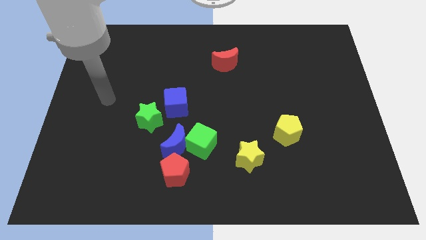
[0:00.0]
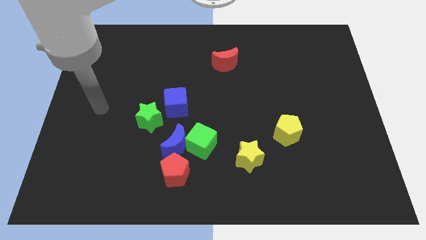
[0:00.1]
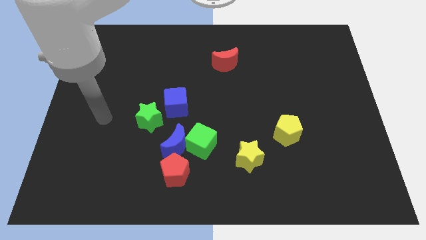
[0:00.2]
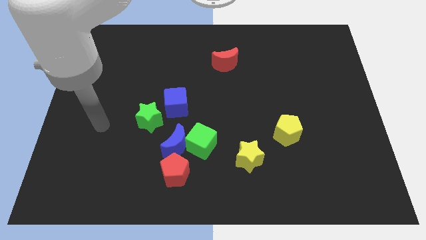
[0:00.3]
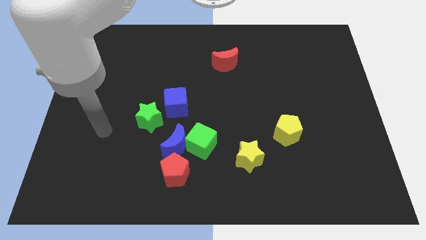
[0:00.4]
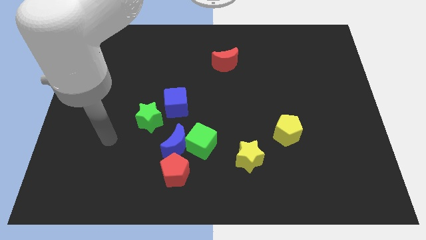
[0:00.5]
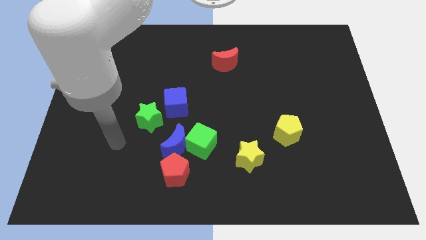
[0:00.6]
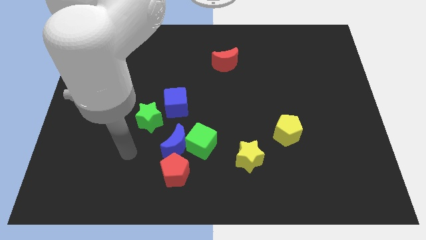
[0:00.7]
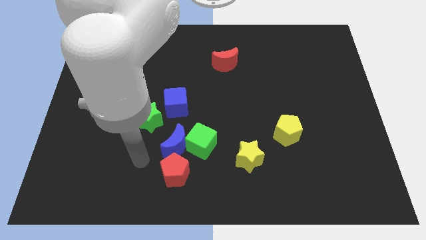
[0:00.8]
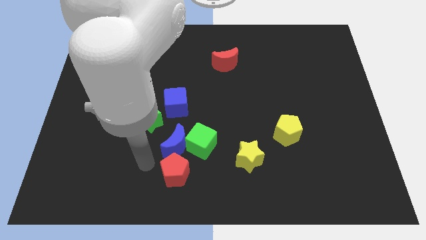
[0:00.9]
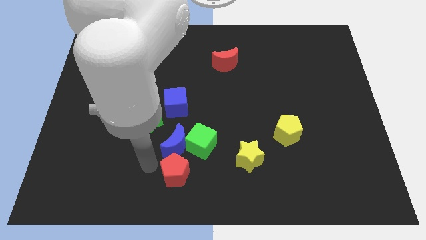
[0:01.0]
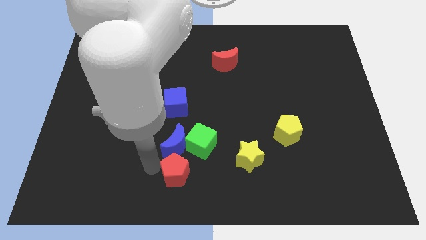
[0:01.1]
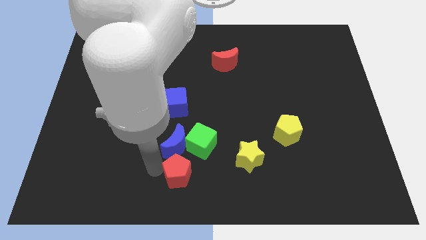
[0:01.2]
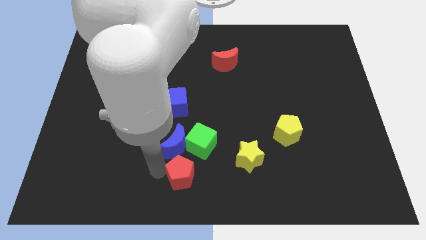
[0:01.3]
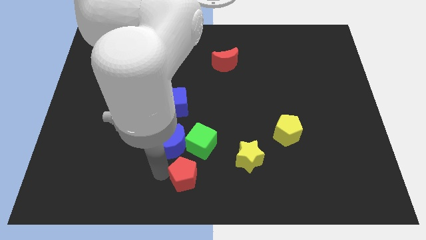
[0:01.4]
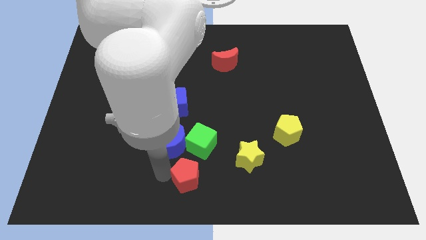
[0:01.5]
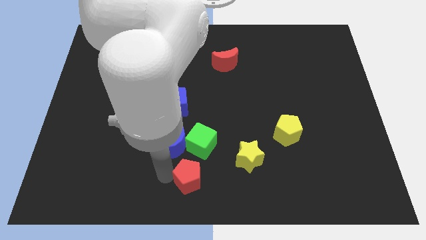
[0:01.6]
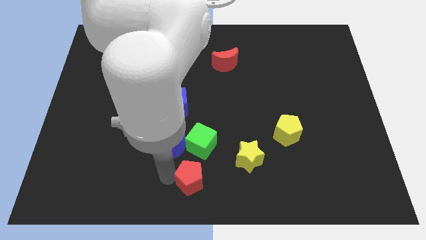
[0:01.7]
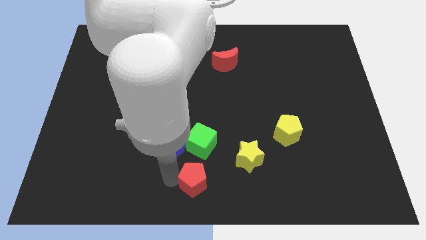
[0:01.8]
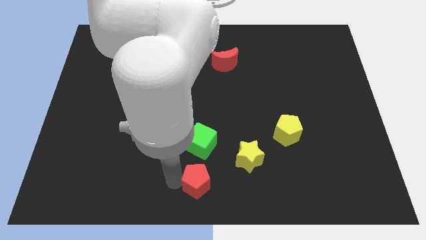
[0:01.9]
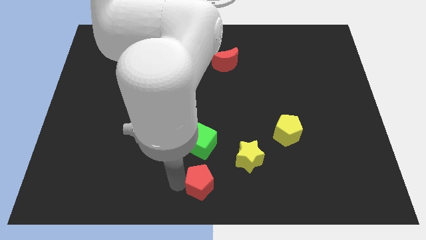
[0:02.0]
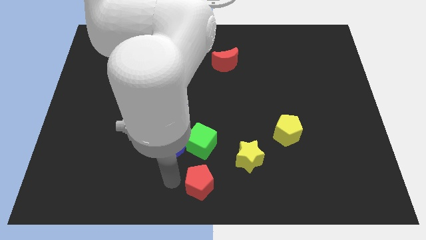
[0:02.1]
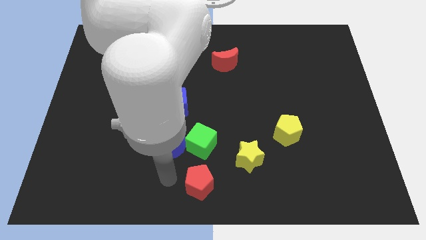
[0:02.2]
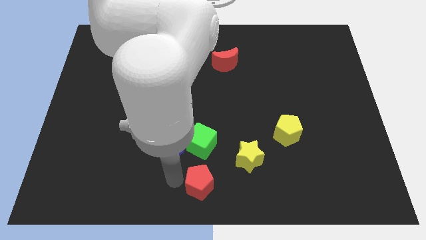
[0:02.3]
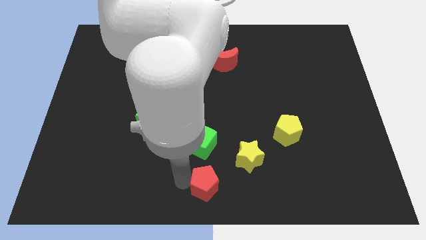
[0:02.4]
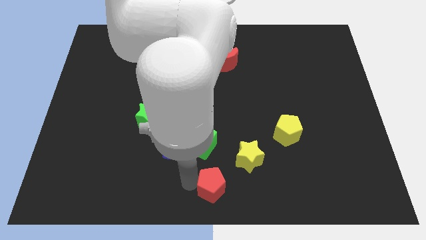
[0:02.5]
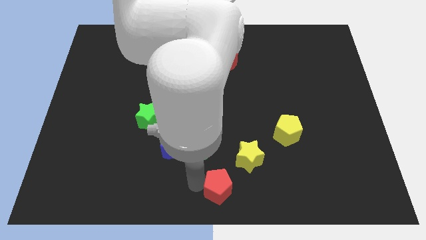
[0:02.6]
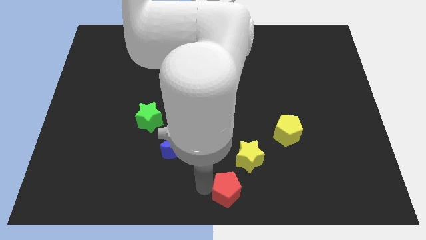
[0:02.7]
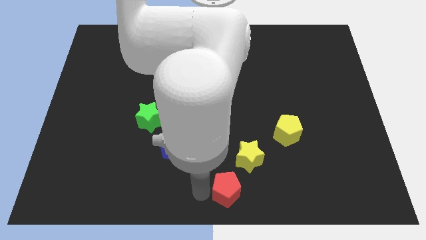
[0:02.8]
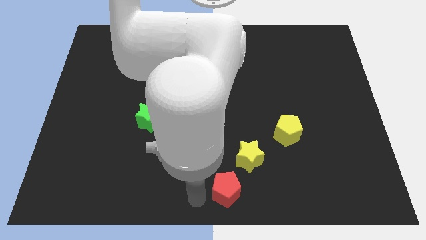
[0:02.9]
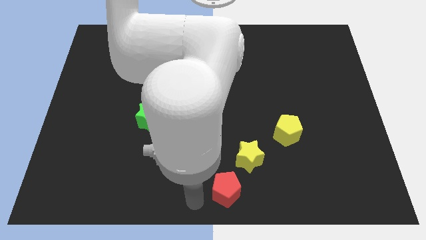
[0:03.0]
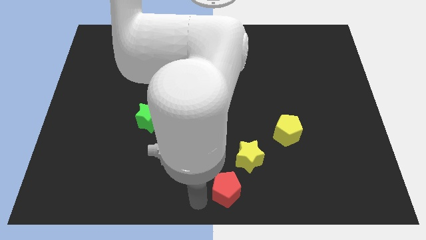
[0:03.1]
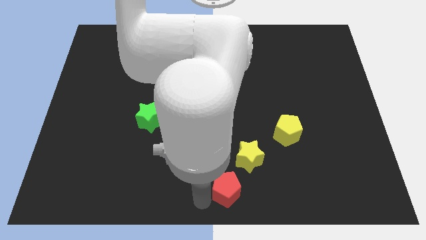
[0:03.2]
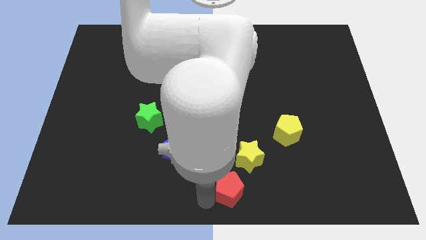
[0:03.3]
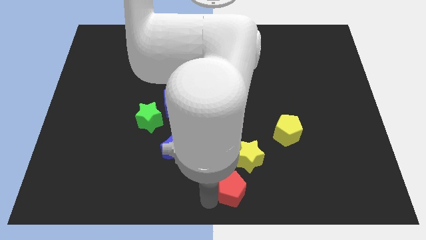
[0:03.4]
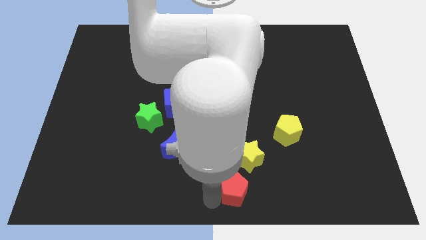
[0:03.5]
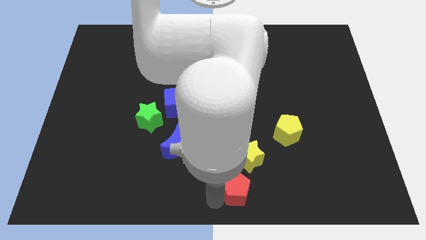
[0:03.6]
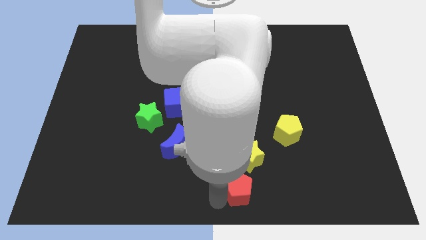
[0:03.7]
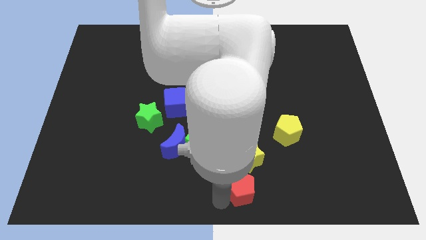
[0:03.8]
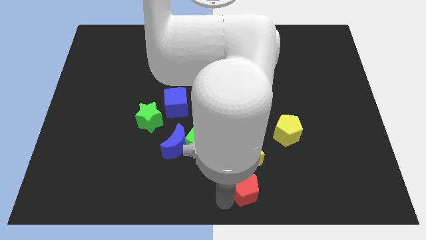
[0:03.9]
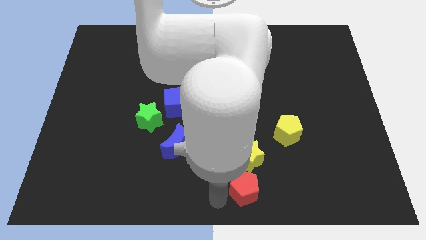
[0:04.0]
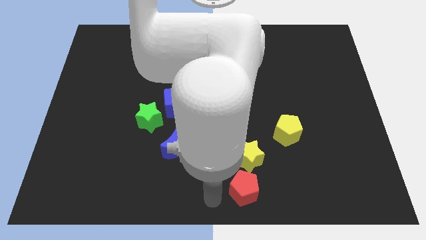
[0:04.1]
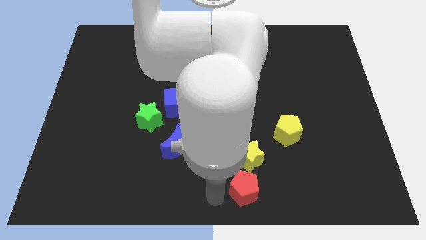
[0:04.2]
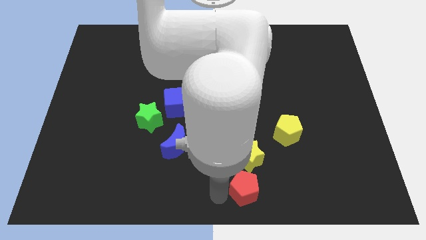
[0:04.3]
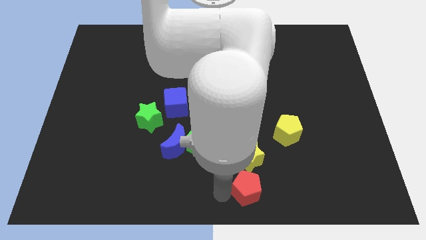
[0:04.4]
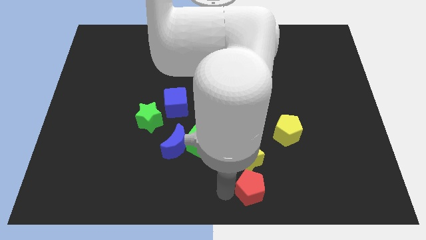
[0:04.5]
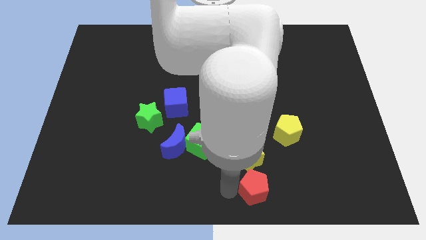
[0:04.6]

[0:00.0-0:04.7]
slide the red pentagon to the bottom right of the yellow star

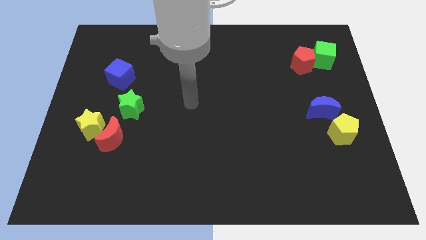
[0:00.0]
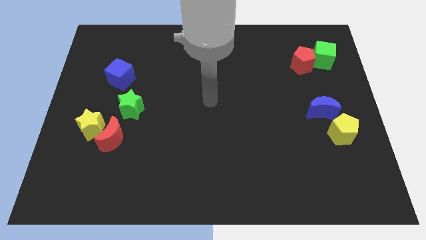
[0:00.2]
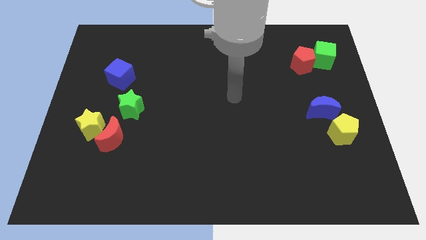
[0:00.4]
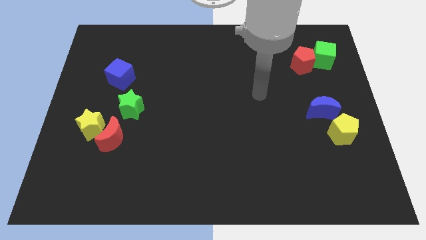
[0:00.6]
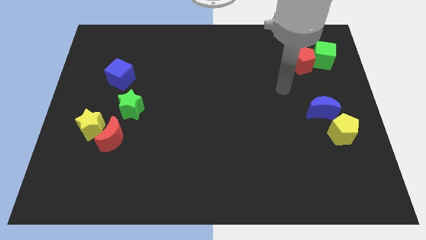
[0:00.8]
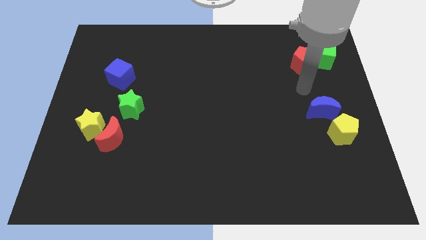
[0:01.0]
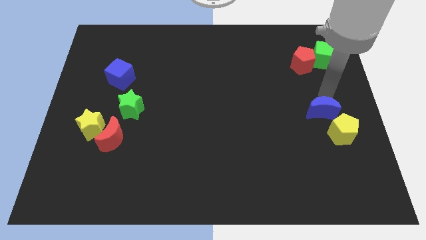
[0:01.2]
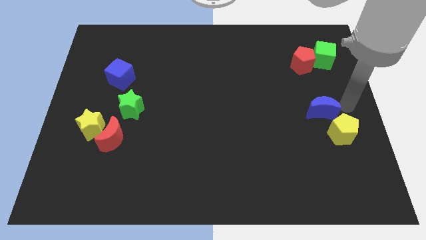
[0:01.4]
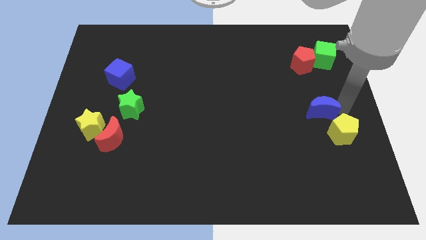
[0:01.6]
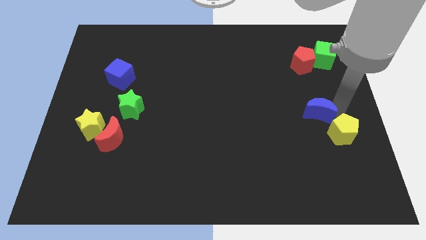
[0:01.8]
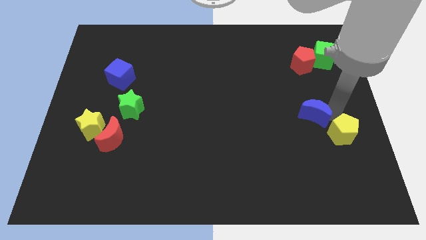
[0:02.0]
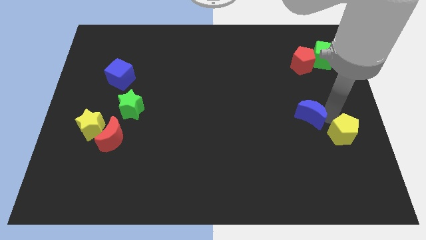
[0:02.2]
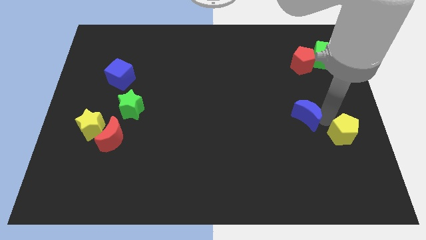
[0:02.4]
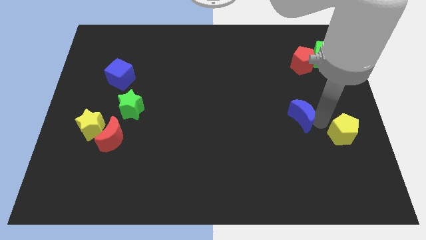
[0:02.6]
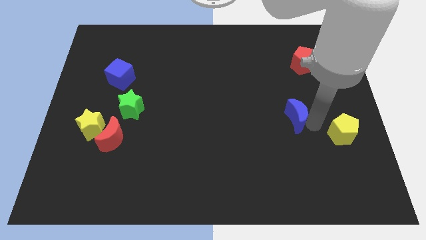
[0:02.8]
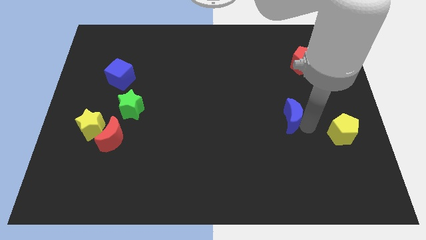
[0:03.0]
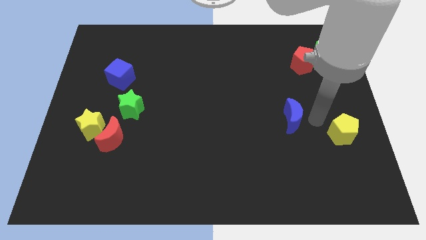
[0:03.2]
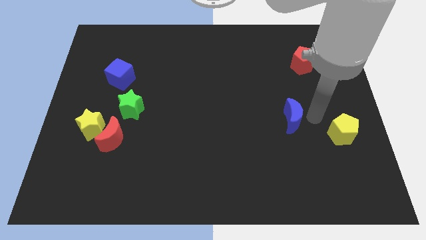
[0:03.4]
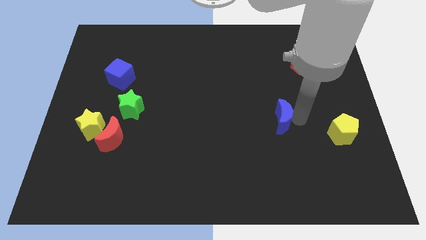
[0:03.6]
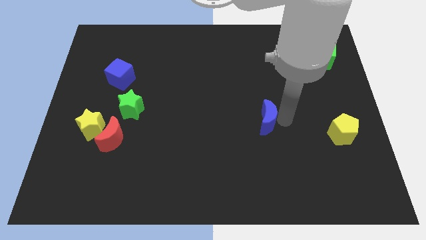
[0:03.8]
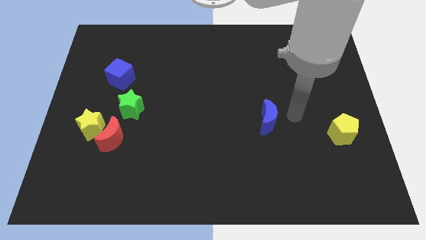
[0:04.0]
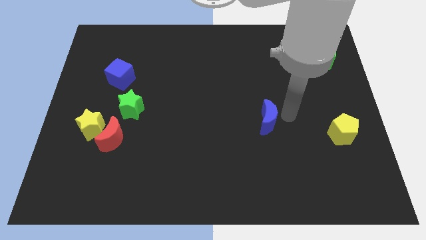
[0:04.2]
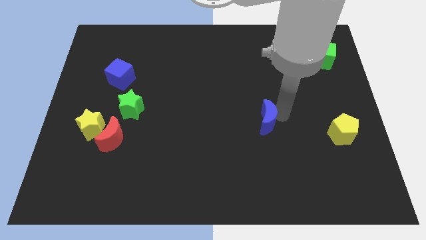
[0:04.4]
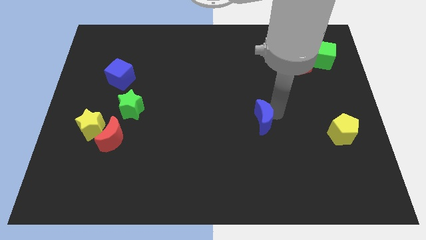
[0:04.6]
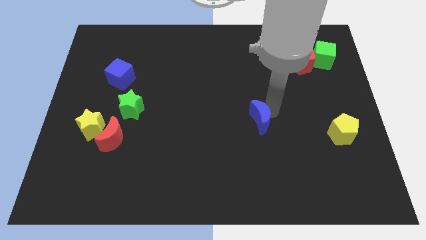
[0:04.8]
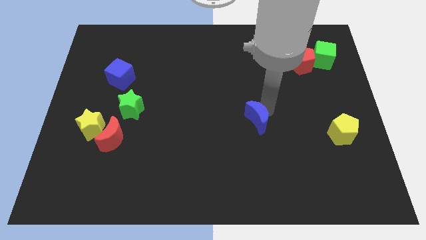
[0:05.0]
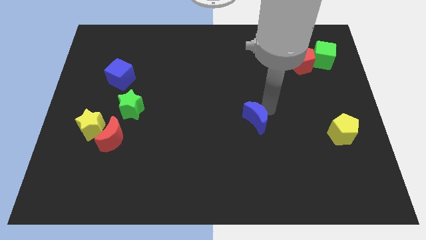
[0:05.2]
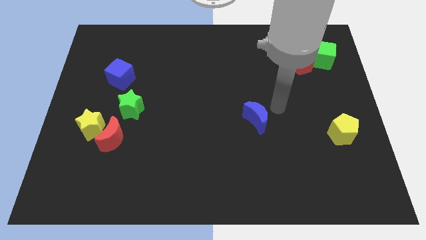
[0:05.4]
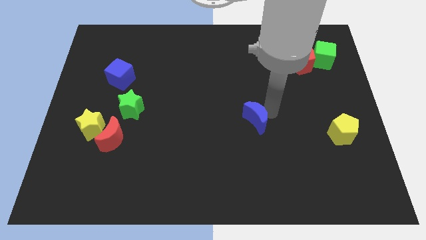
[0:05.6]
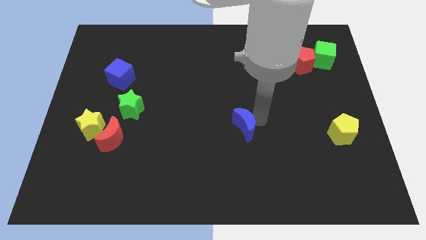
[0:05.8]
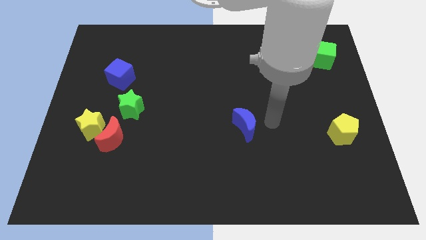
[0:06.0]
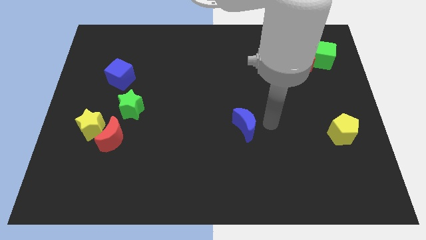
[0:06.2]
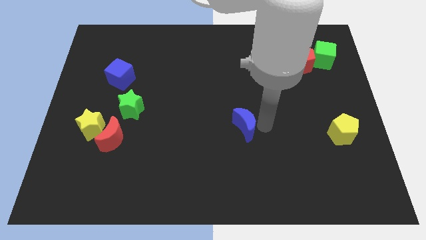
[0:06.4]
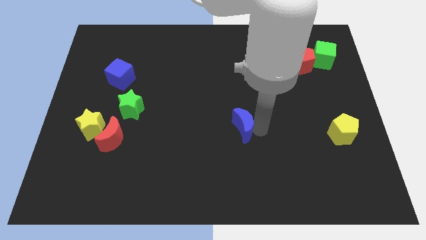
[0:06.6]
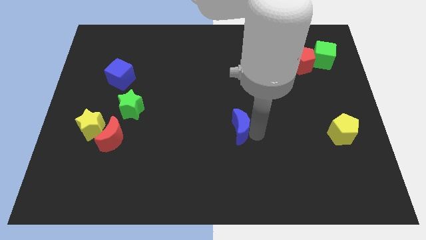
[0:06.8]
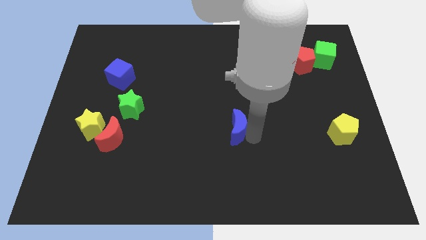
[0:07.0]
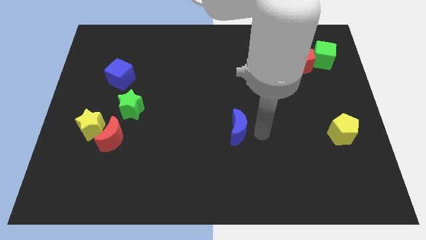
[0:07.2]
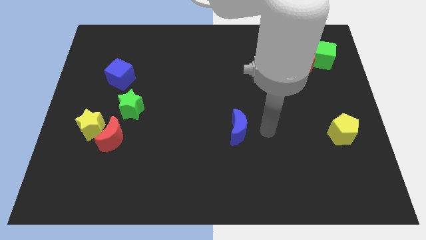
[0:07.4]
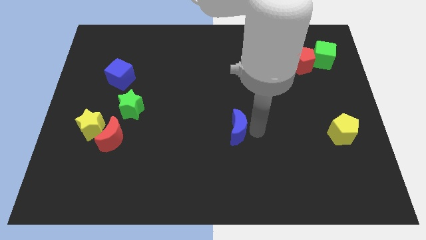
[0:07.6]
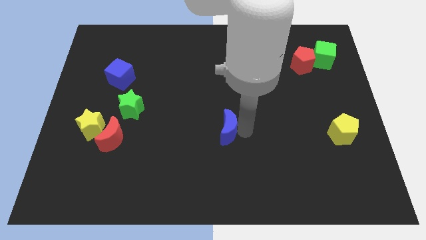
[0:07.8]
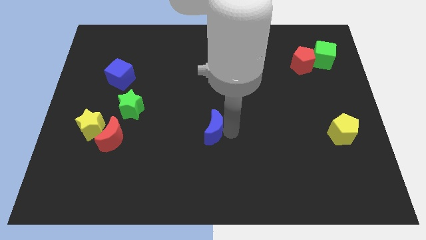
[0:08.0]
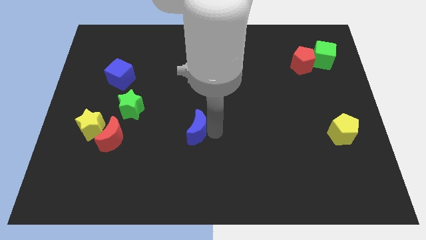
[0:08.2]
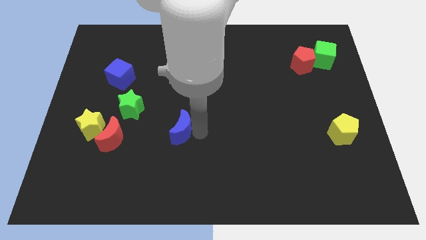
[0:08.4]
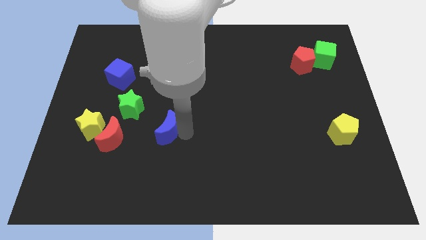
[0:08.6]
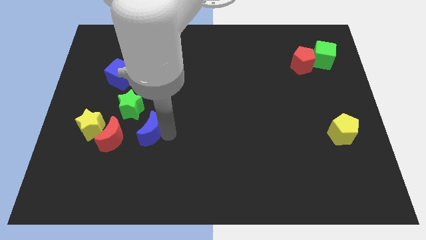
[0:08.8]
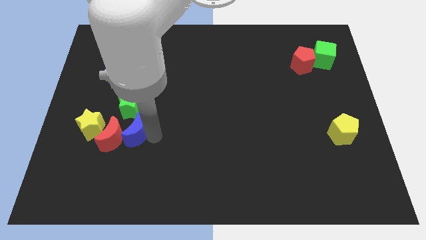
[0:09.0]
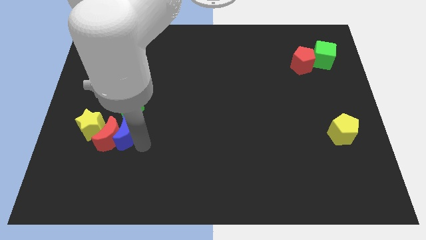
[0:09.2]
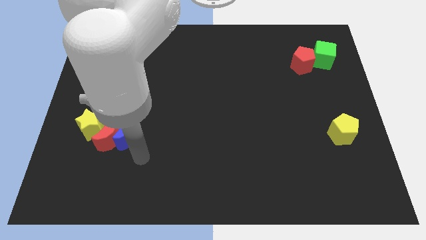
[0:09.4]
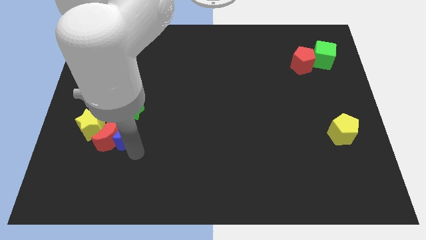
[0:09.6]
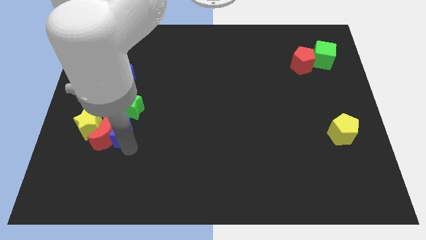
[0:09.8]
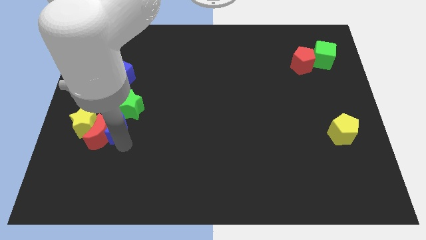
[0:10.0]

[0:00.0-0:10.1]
slide the blue moon to the bottom side of the blue cube
